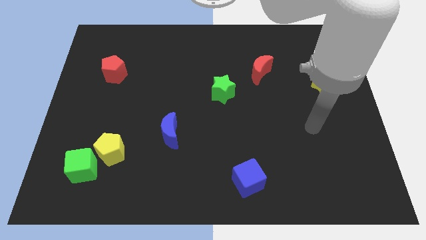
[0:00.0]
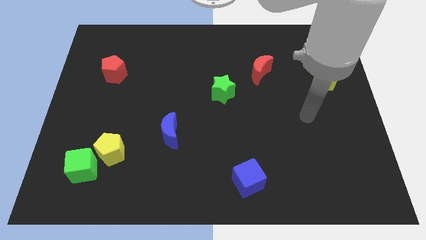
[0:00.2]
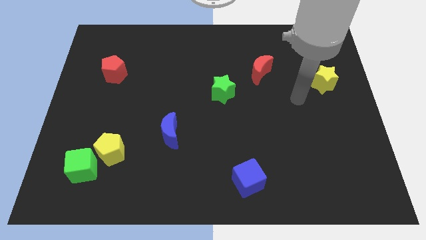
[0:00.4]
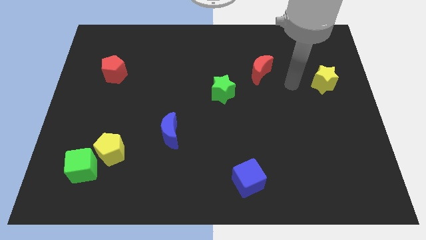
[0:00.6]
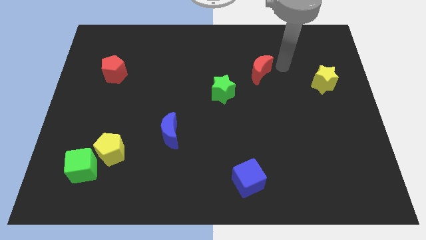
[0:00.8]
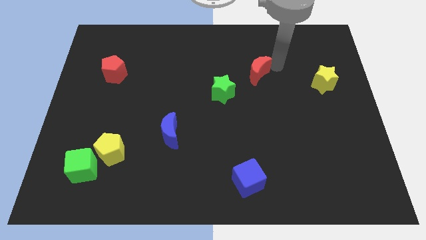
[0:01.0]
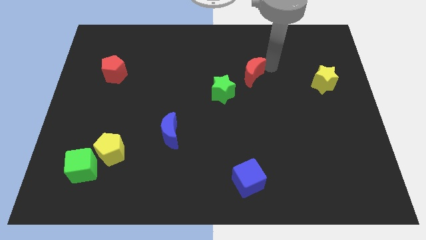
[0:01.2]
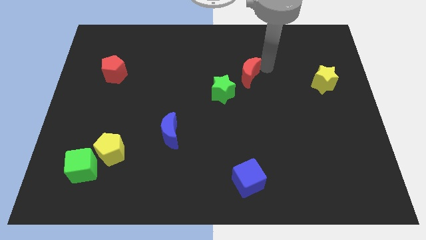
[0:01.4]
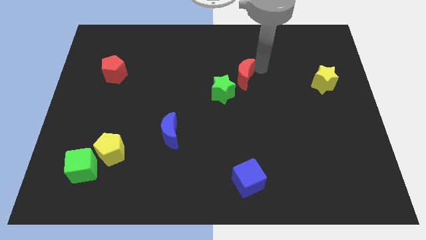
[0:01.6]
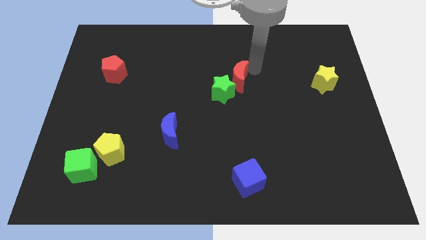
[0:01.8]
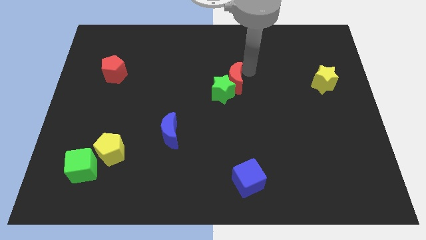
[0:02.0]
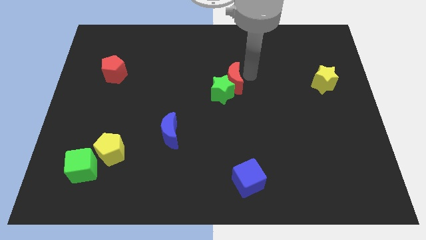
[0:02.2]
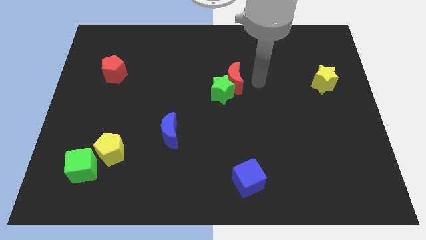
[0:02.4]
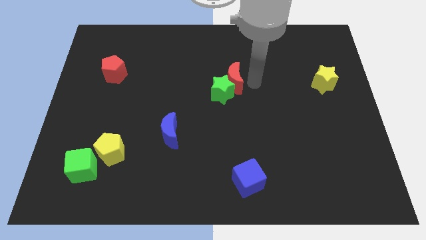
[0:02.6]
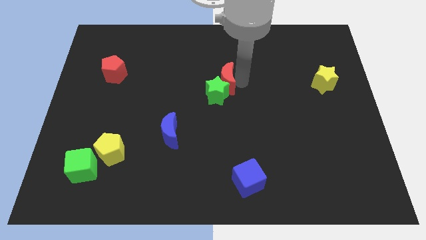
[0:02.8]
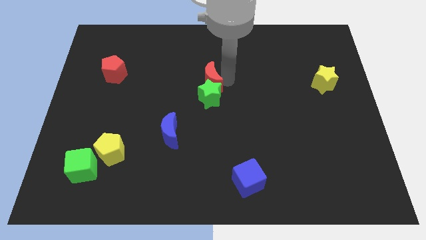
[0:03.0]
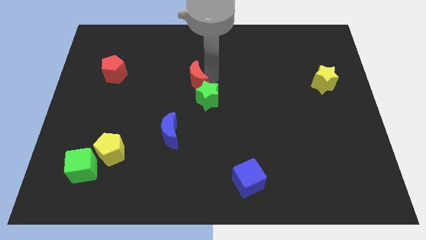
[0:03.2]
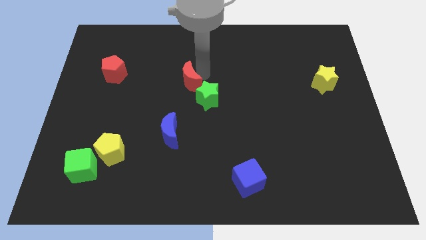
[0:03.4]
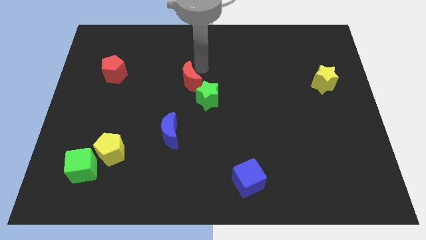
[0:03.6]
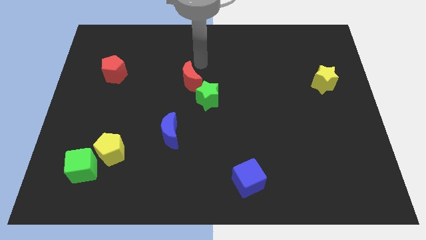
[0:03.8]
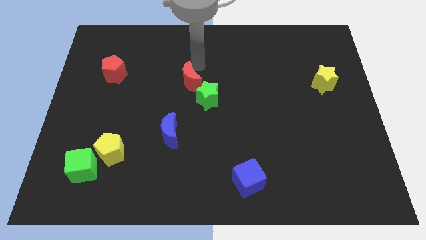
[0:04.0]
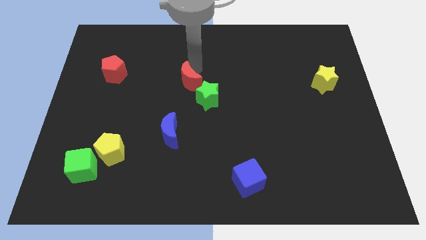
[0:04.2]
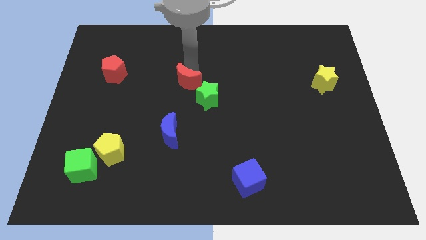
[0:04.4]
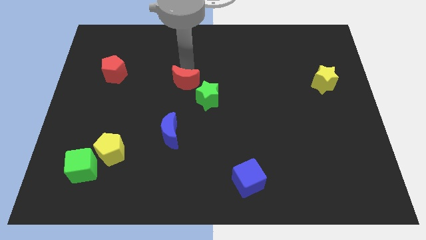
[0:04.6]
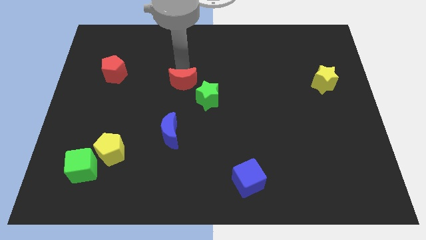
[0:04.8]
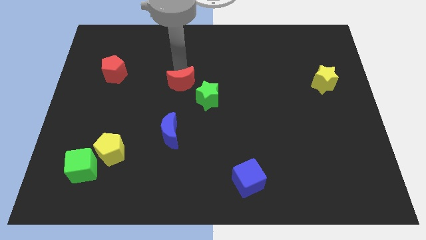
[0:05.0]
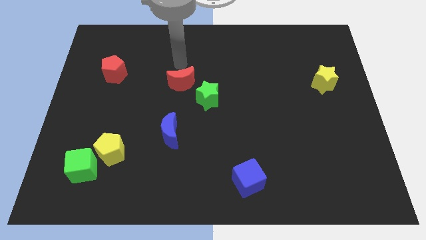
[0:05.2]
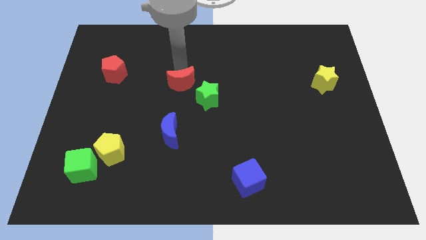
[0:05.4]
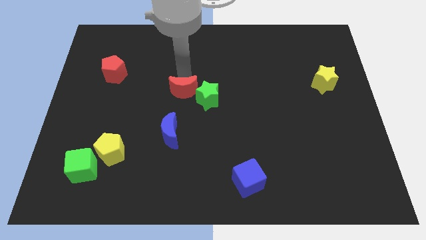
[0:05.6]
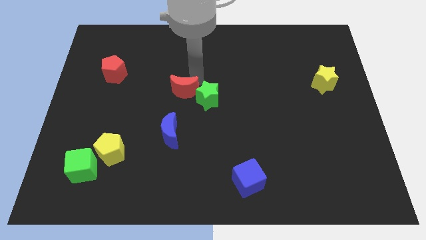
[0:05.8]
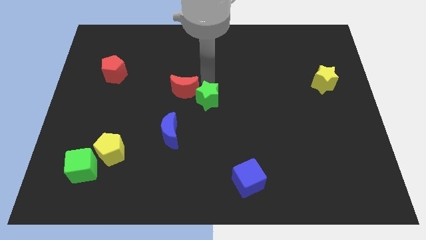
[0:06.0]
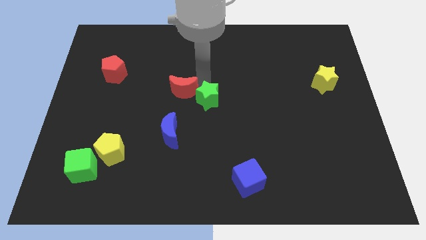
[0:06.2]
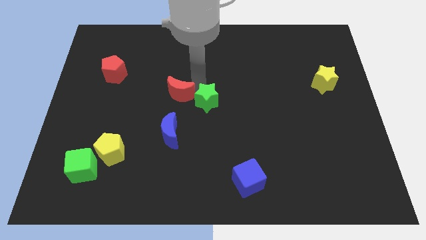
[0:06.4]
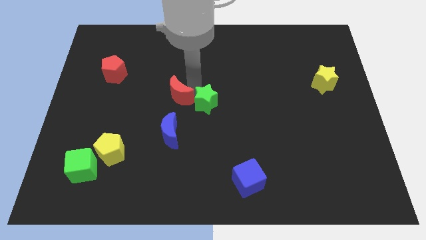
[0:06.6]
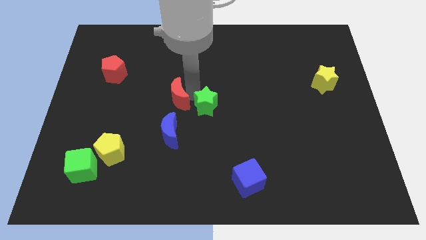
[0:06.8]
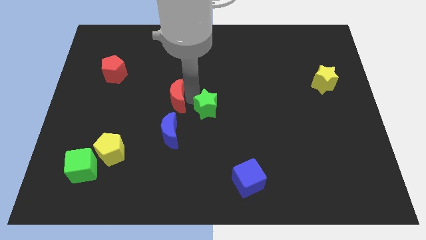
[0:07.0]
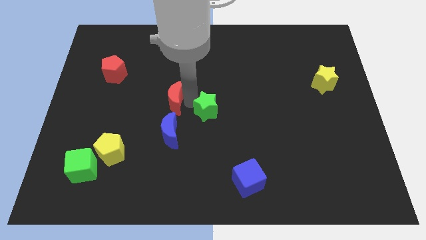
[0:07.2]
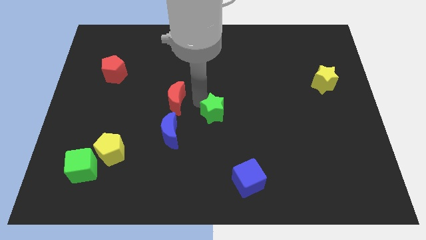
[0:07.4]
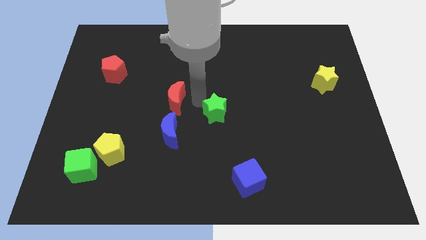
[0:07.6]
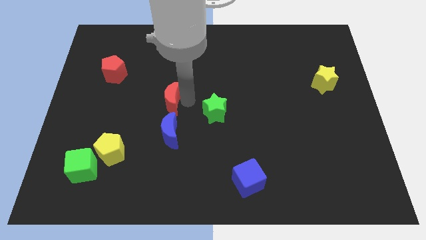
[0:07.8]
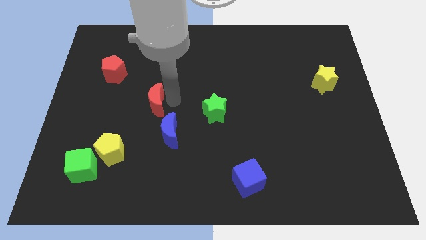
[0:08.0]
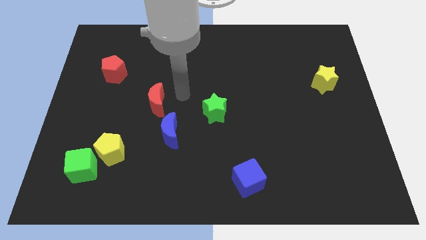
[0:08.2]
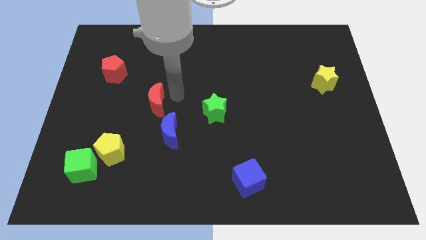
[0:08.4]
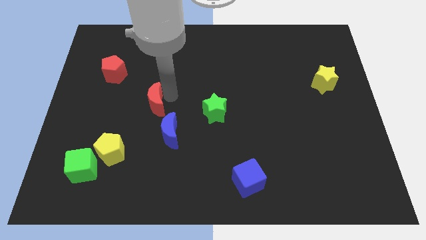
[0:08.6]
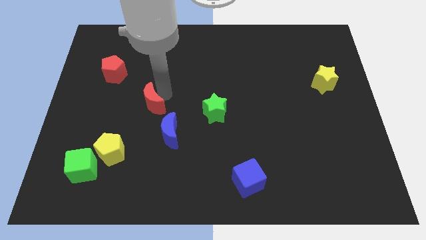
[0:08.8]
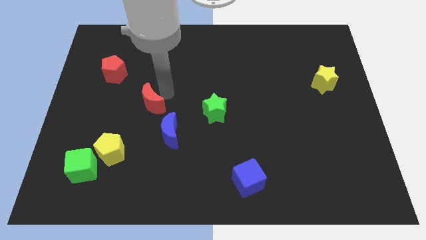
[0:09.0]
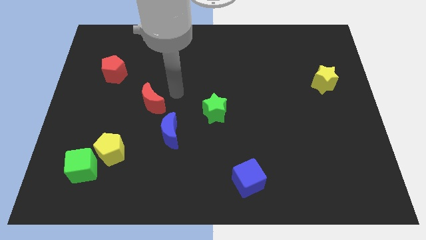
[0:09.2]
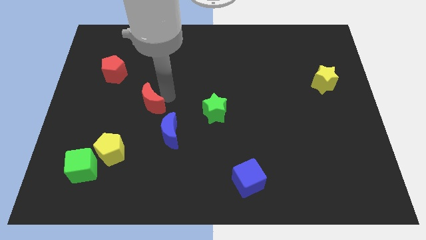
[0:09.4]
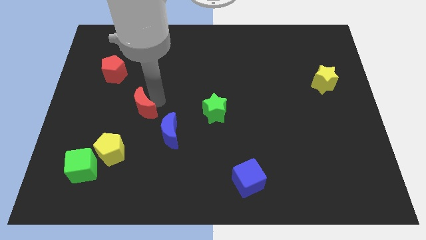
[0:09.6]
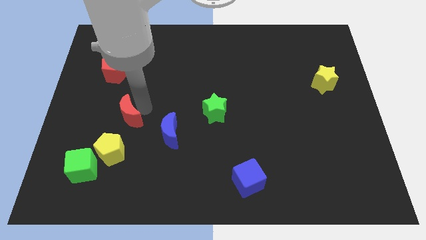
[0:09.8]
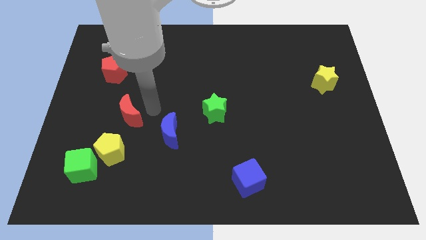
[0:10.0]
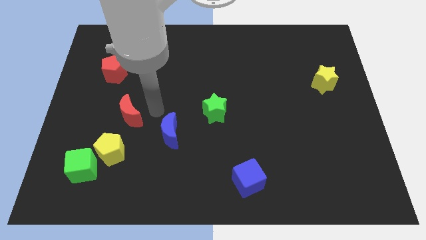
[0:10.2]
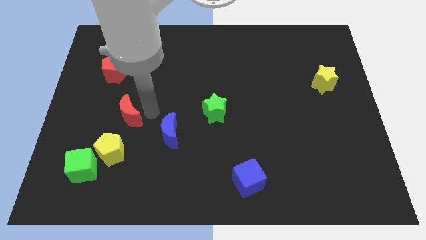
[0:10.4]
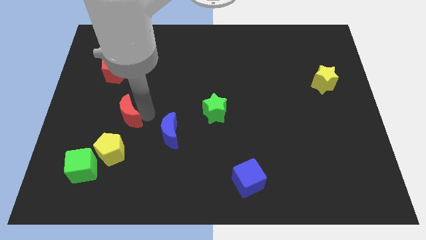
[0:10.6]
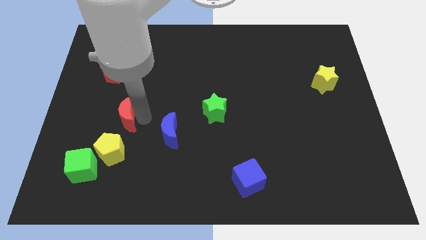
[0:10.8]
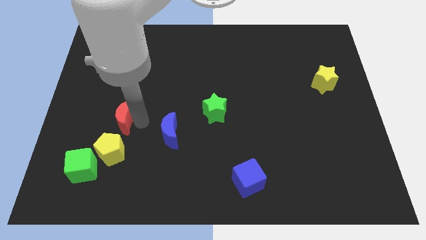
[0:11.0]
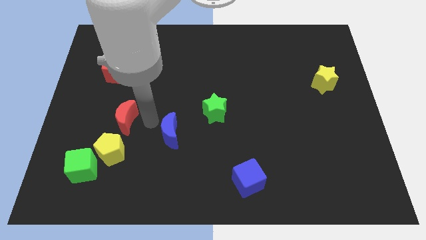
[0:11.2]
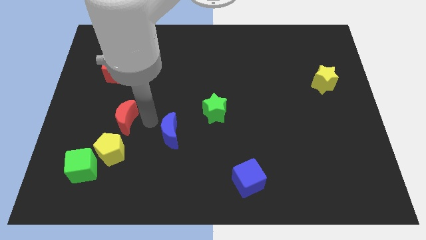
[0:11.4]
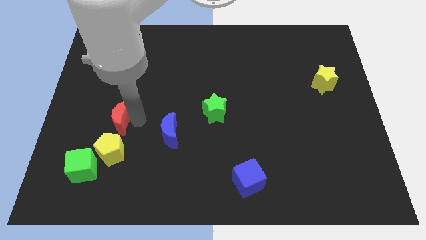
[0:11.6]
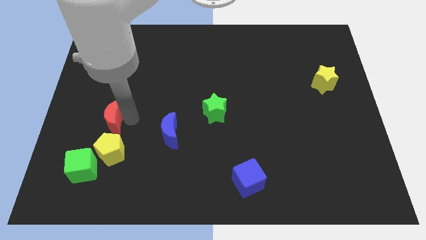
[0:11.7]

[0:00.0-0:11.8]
put the red moon to the top of the green cube
